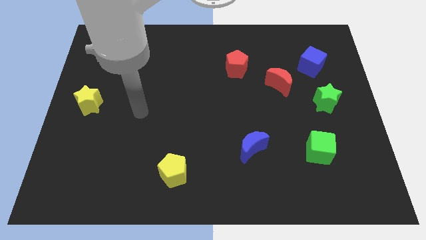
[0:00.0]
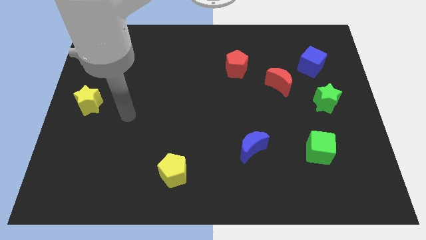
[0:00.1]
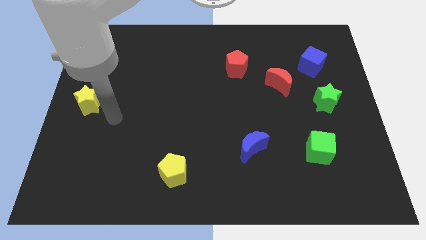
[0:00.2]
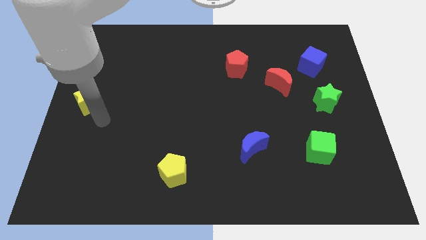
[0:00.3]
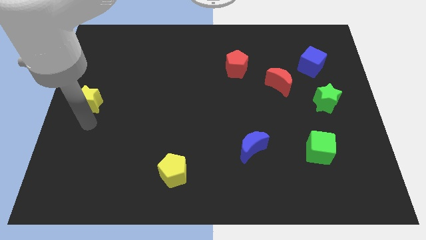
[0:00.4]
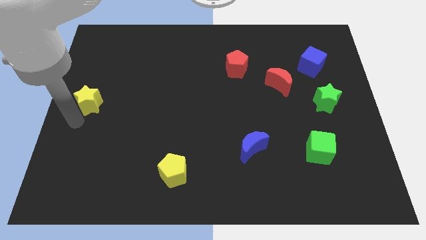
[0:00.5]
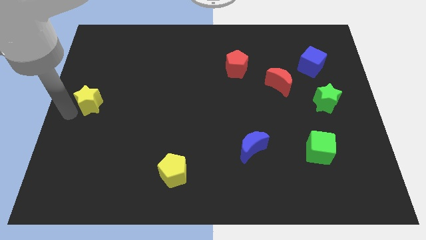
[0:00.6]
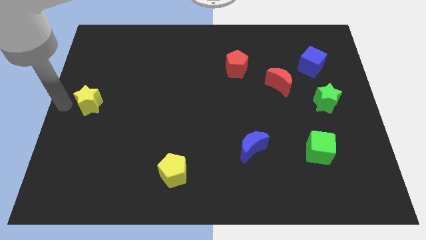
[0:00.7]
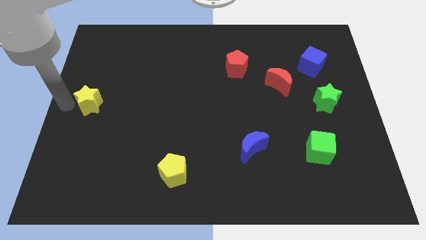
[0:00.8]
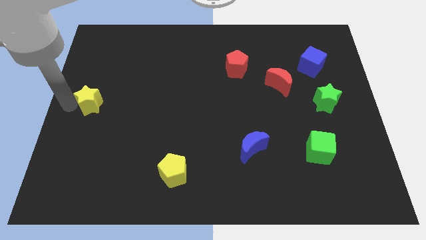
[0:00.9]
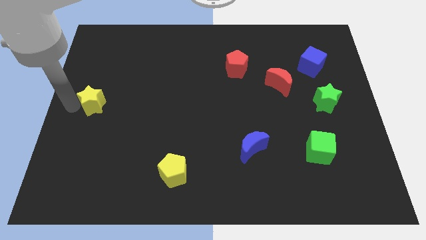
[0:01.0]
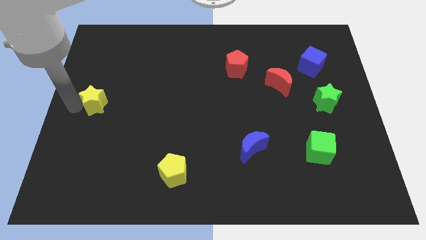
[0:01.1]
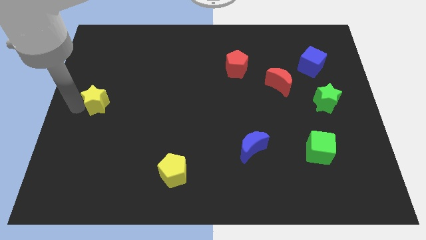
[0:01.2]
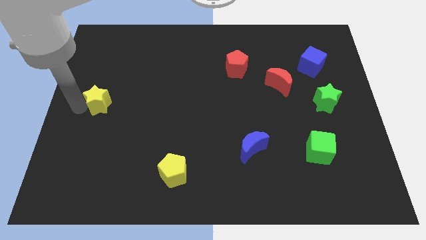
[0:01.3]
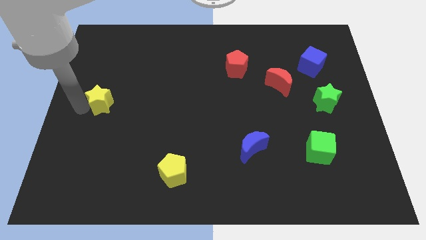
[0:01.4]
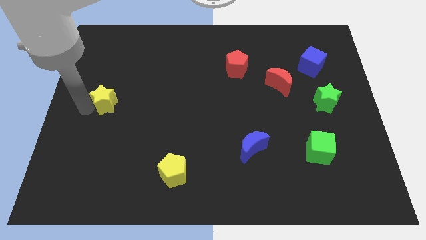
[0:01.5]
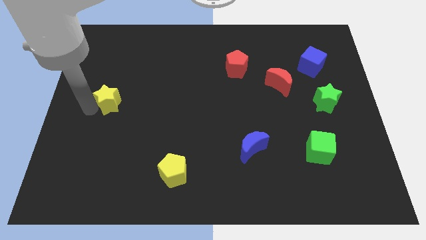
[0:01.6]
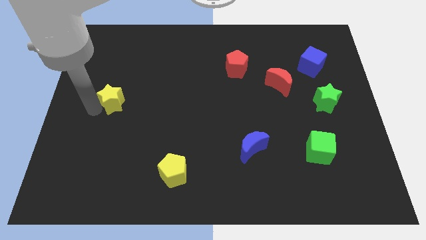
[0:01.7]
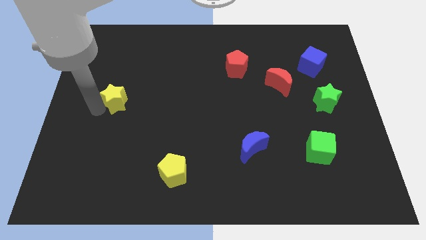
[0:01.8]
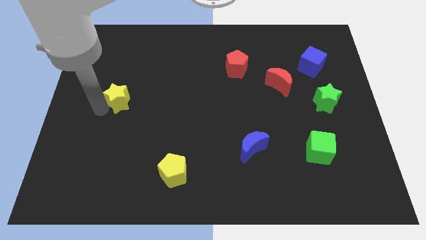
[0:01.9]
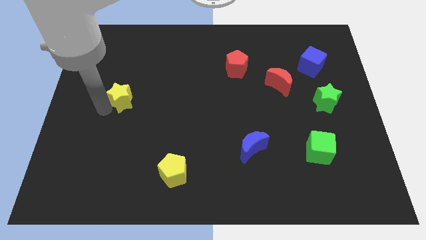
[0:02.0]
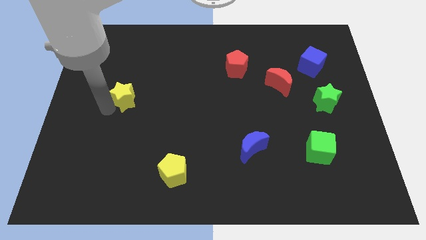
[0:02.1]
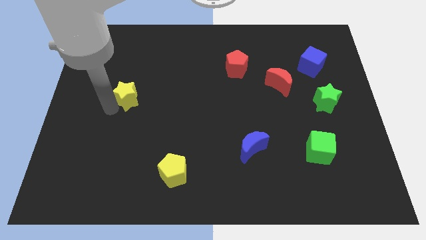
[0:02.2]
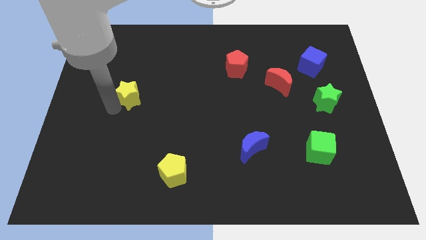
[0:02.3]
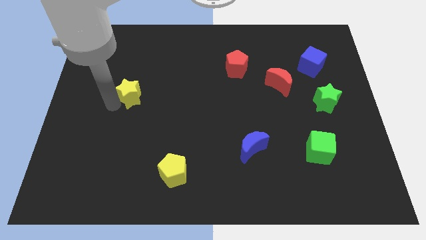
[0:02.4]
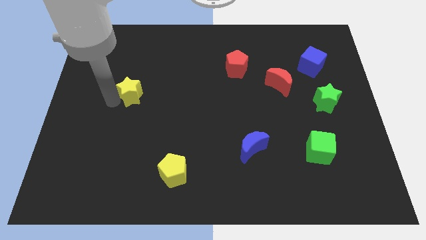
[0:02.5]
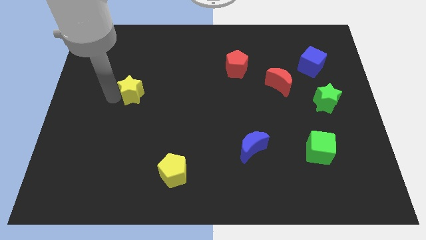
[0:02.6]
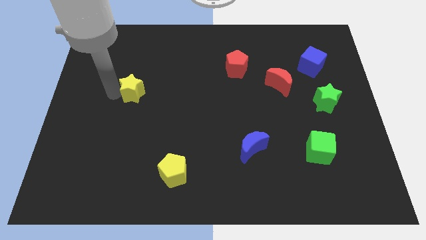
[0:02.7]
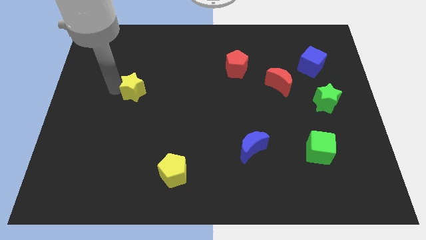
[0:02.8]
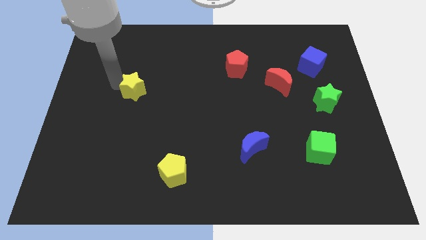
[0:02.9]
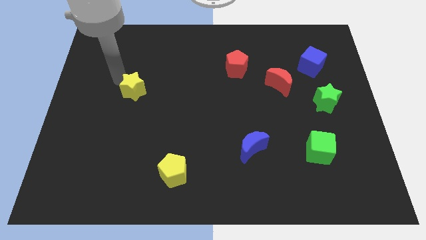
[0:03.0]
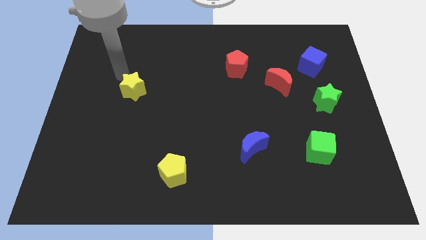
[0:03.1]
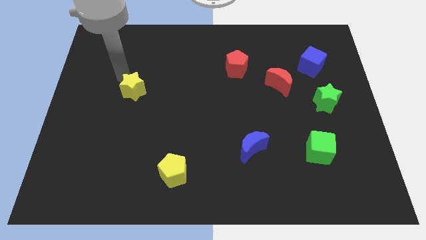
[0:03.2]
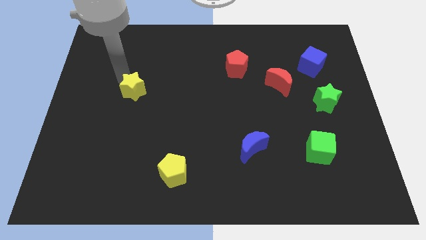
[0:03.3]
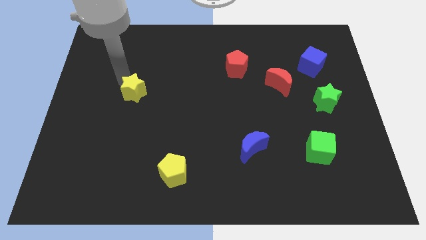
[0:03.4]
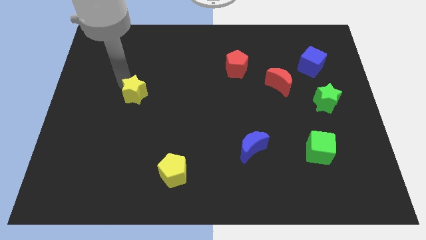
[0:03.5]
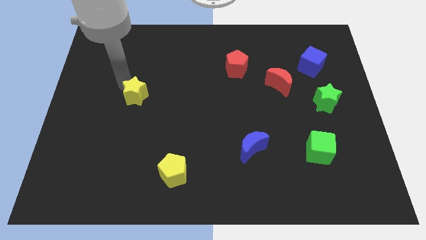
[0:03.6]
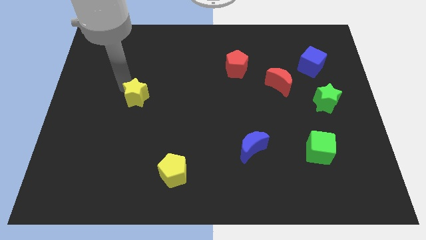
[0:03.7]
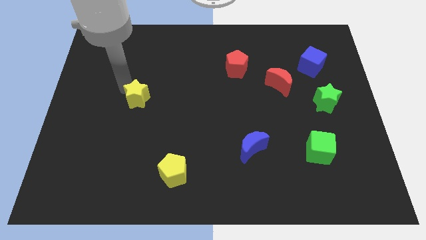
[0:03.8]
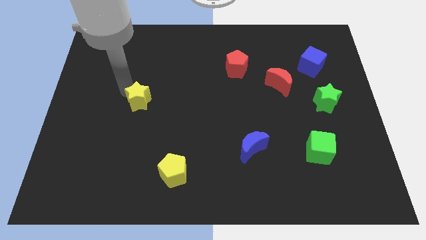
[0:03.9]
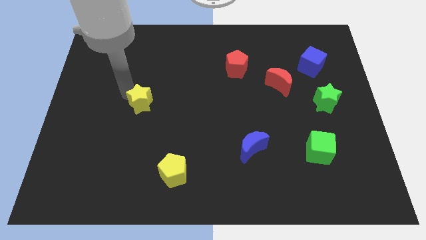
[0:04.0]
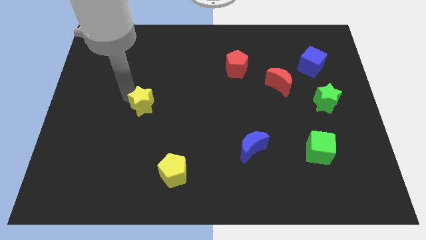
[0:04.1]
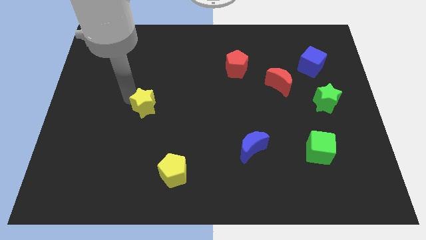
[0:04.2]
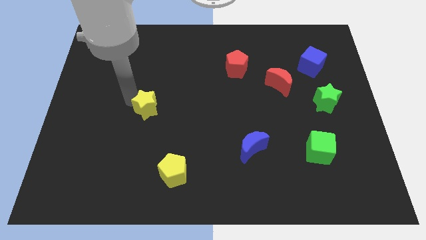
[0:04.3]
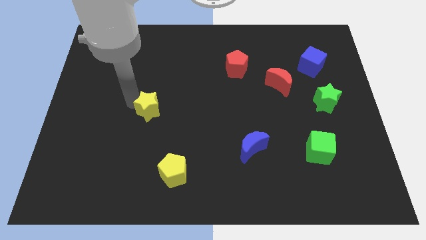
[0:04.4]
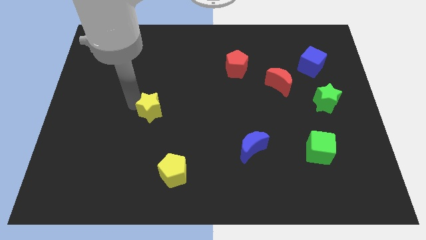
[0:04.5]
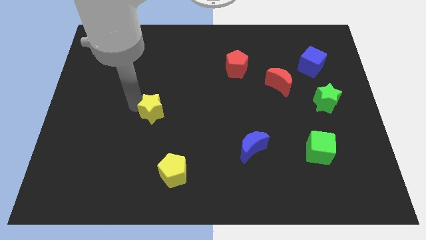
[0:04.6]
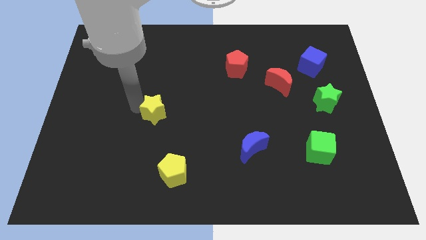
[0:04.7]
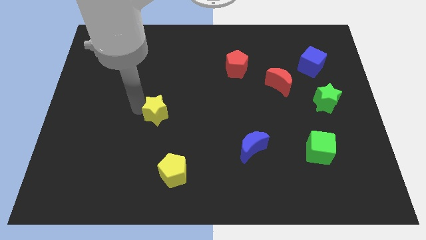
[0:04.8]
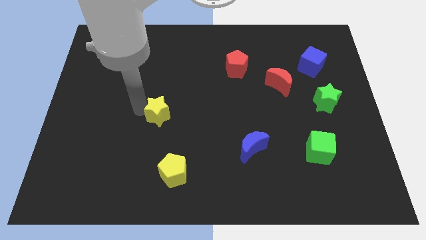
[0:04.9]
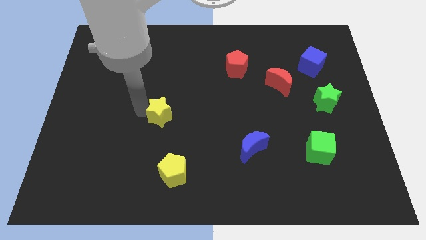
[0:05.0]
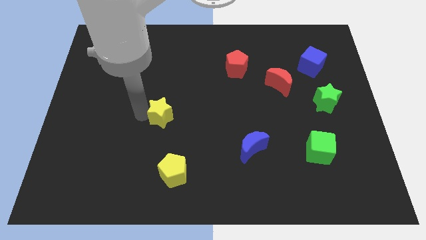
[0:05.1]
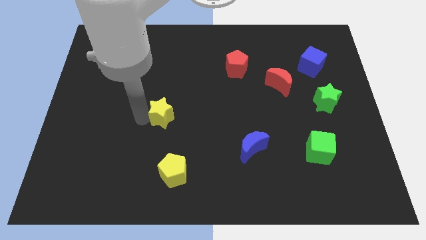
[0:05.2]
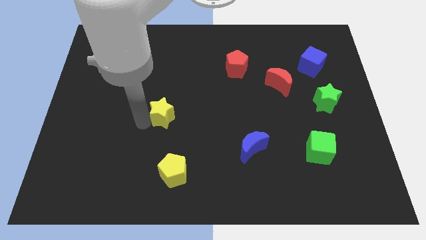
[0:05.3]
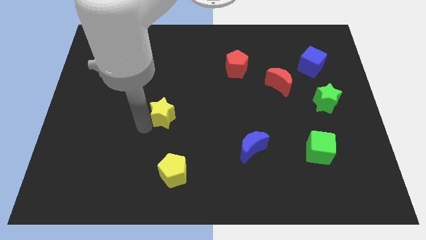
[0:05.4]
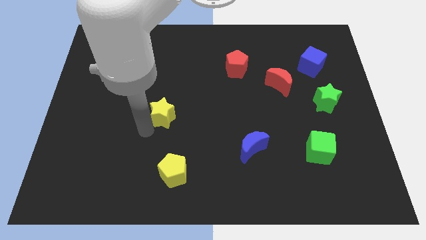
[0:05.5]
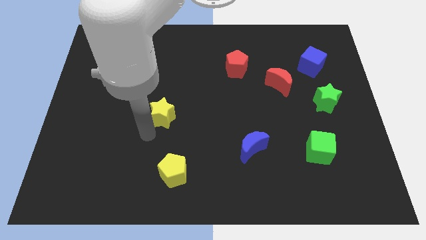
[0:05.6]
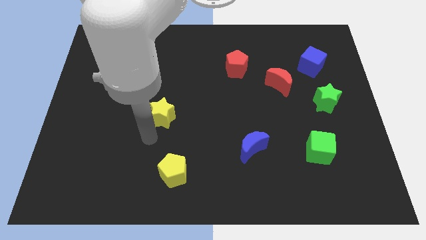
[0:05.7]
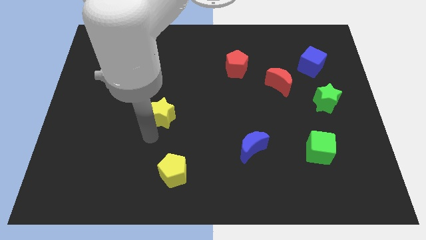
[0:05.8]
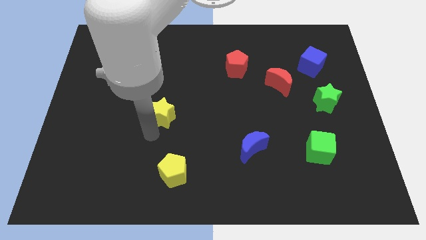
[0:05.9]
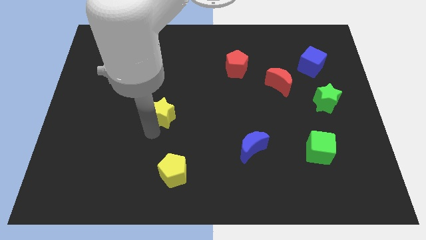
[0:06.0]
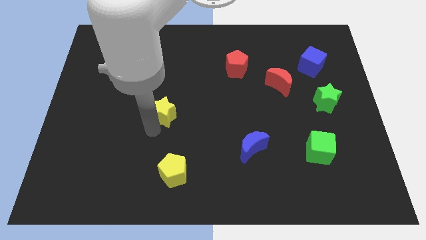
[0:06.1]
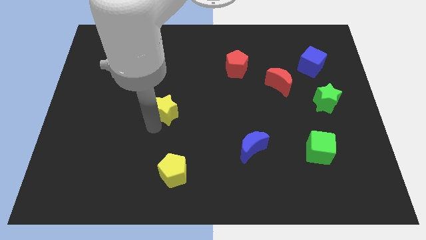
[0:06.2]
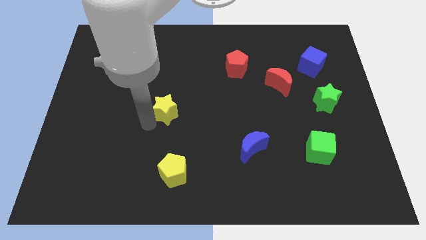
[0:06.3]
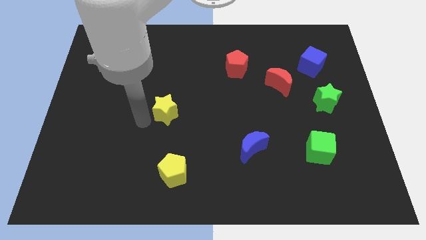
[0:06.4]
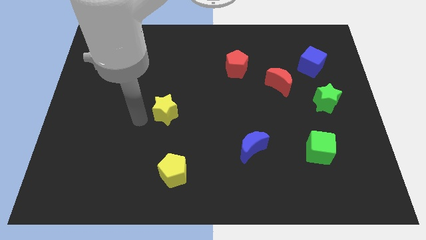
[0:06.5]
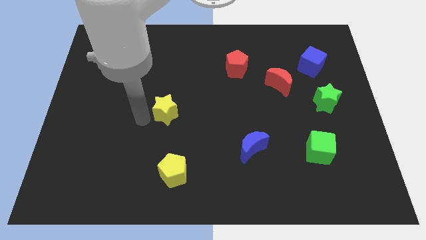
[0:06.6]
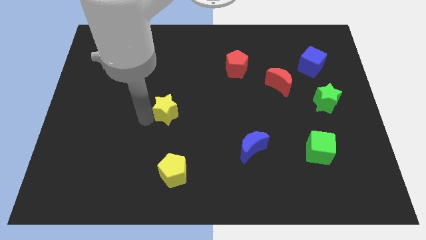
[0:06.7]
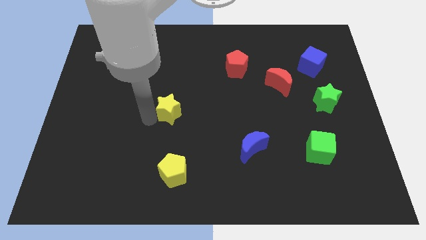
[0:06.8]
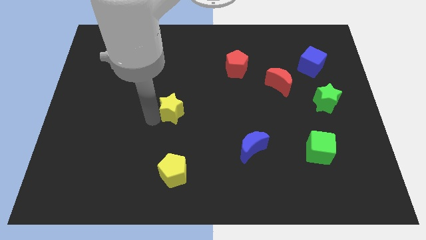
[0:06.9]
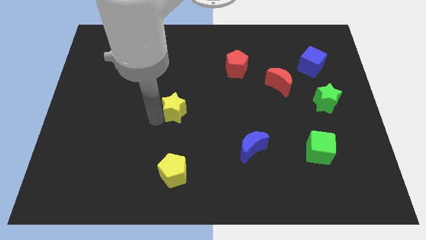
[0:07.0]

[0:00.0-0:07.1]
move the yellow star right

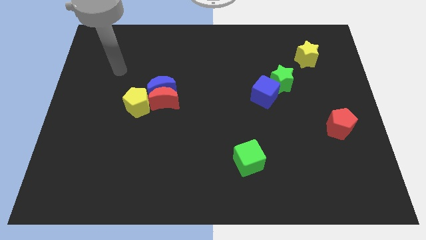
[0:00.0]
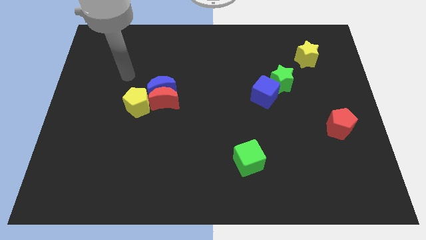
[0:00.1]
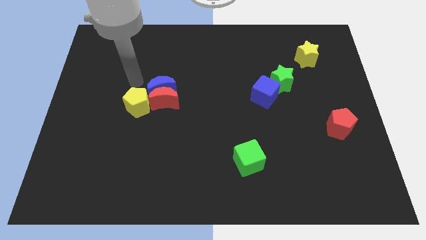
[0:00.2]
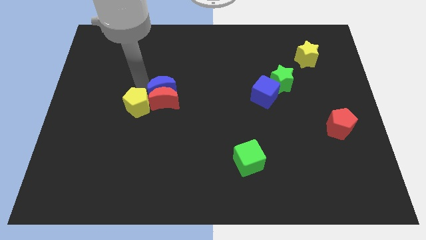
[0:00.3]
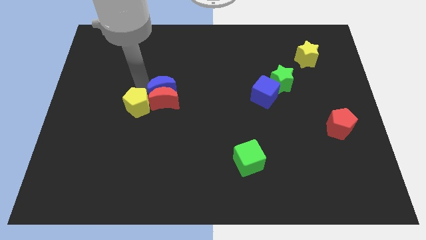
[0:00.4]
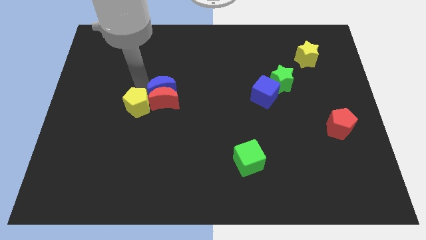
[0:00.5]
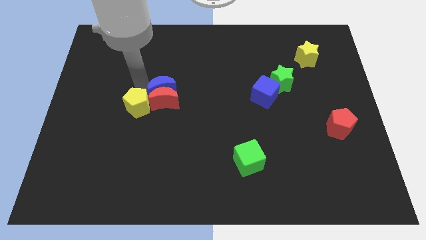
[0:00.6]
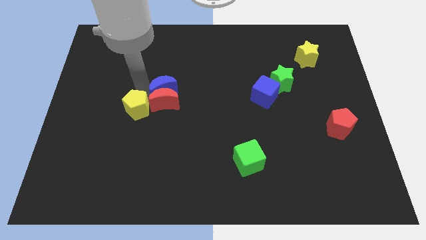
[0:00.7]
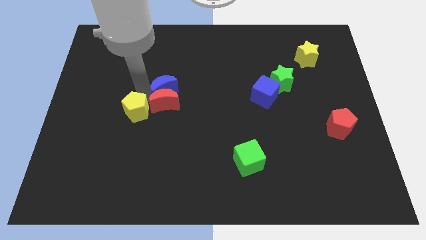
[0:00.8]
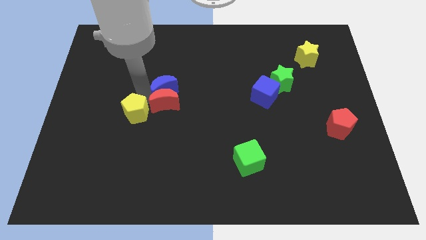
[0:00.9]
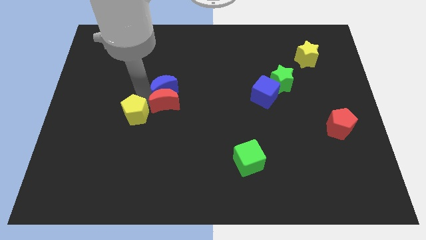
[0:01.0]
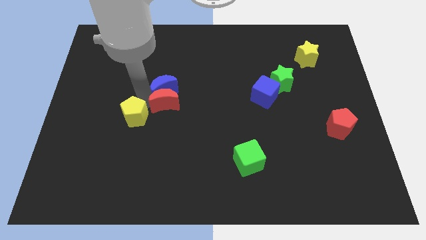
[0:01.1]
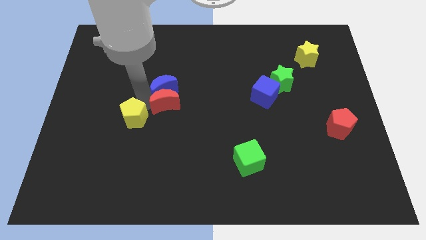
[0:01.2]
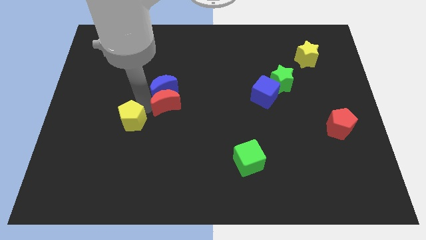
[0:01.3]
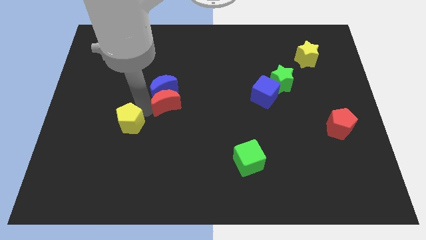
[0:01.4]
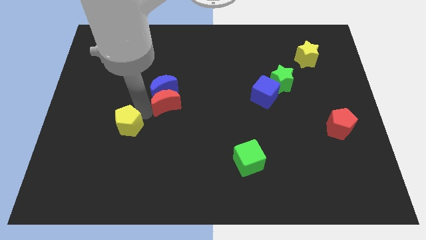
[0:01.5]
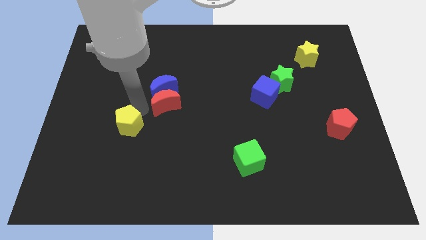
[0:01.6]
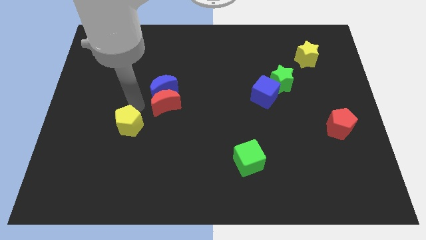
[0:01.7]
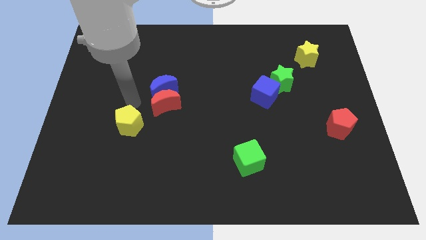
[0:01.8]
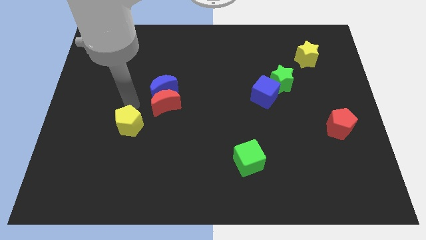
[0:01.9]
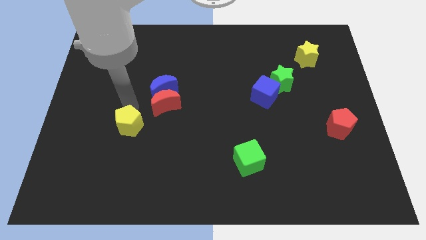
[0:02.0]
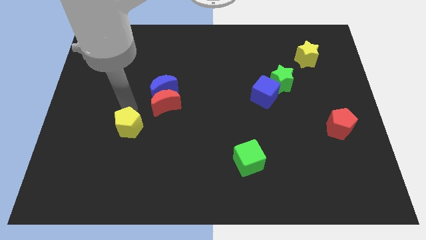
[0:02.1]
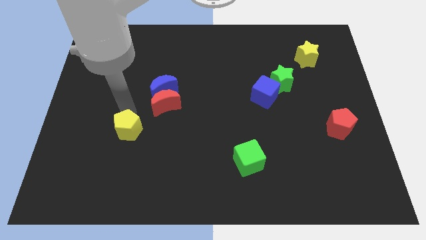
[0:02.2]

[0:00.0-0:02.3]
slide the yellow pentagon down somewhat
